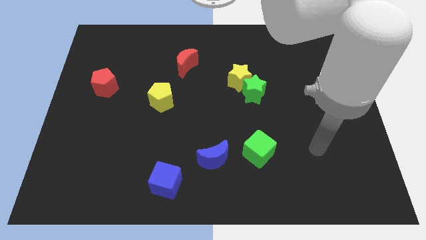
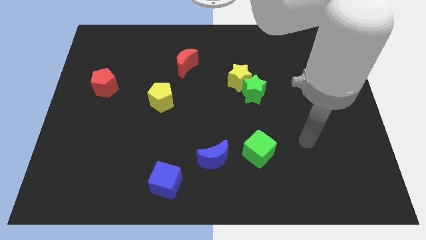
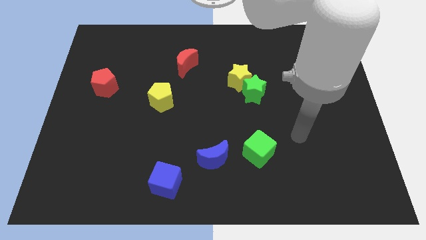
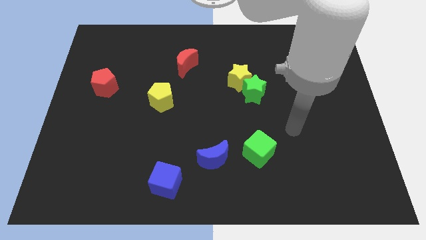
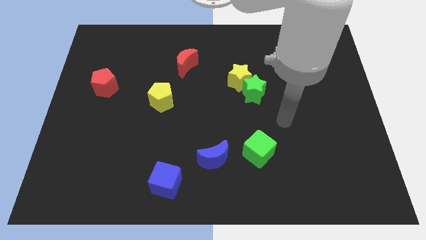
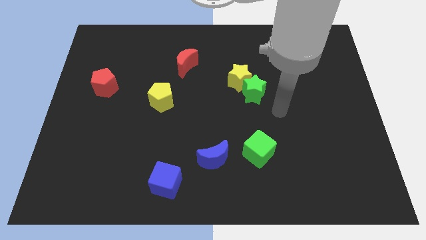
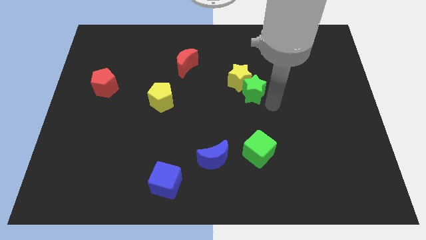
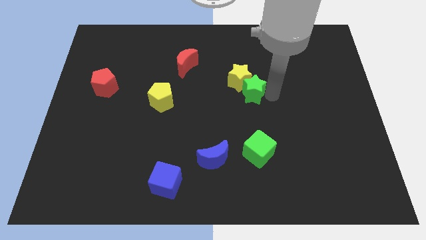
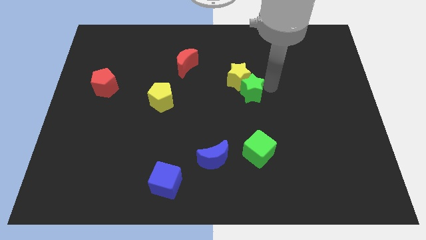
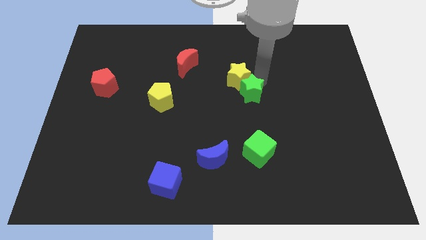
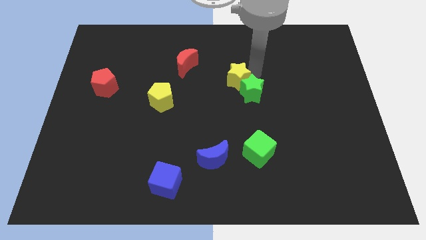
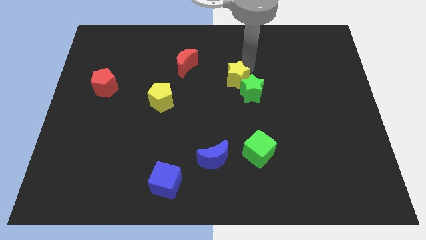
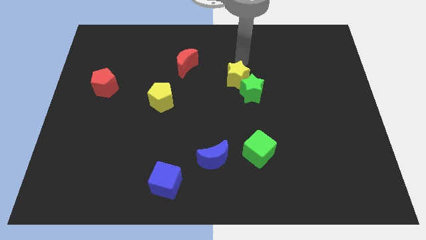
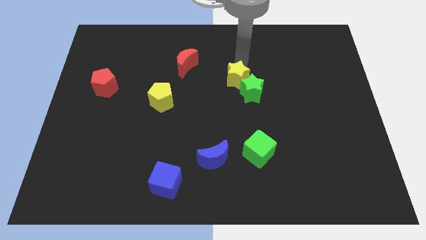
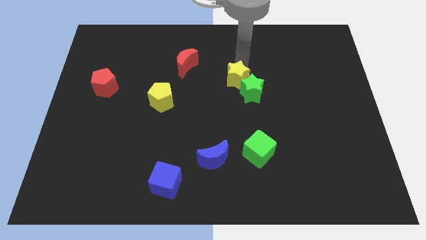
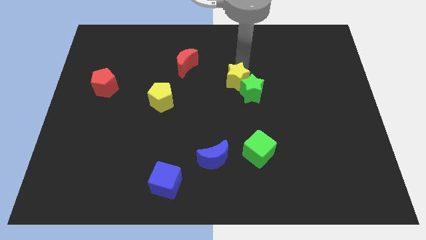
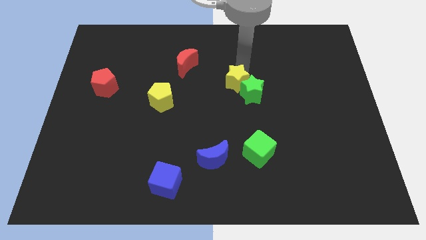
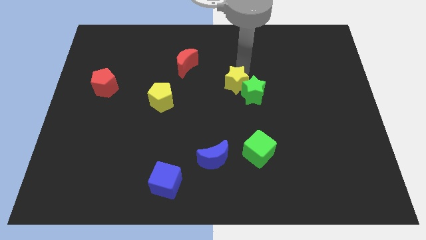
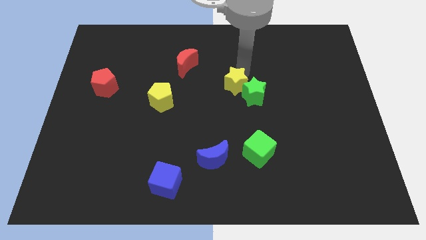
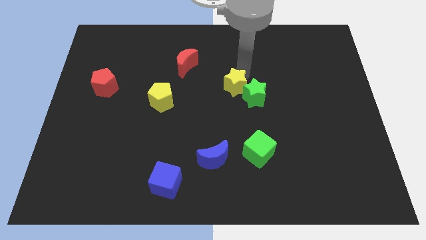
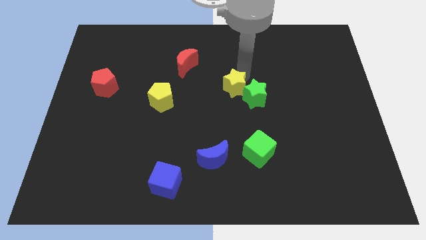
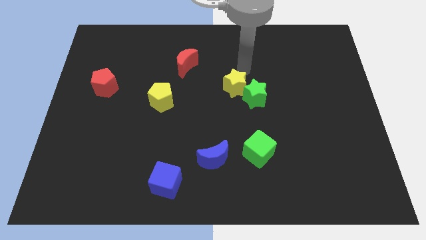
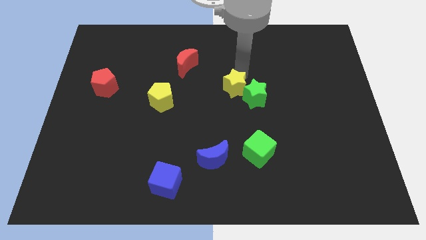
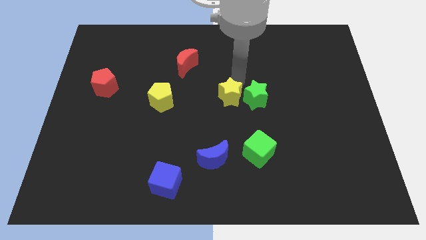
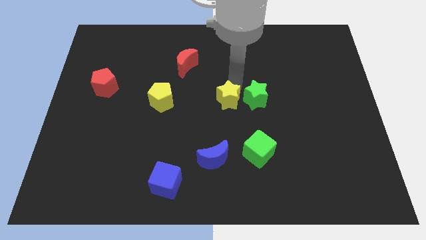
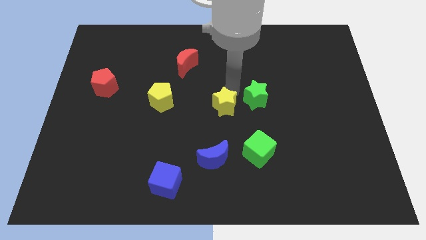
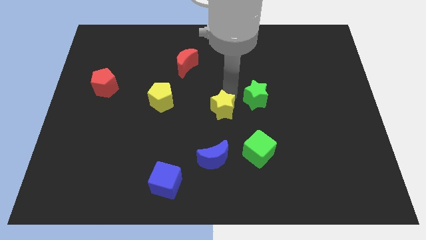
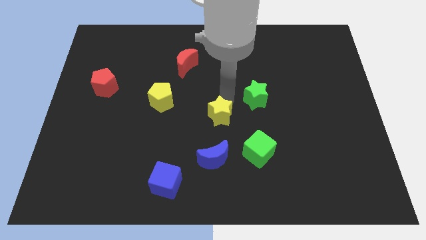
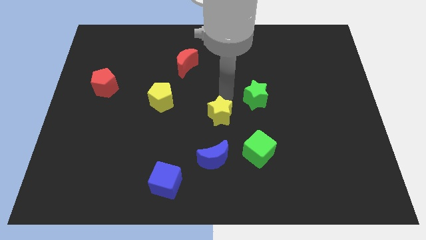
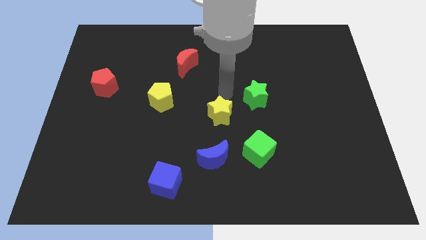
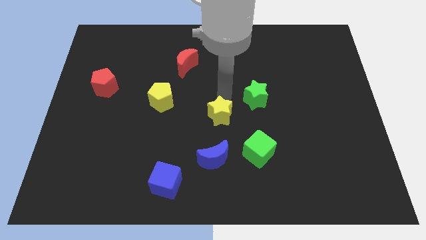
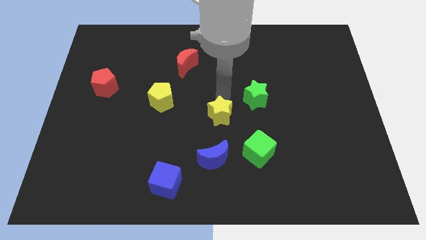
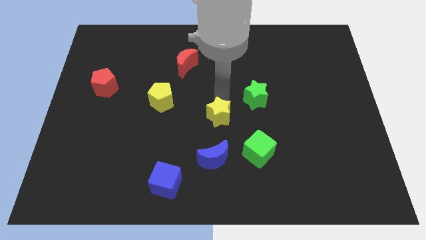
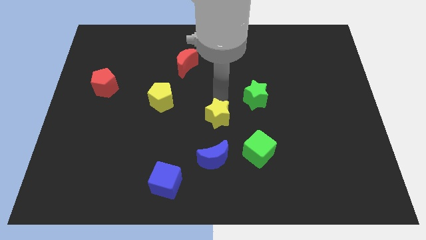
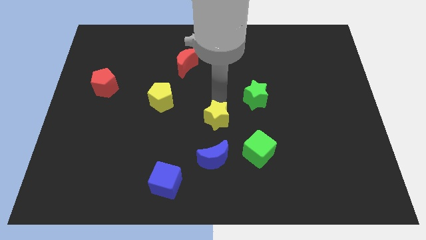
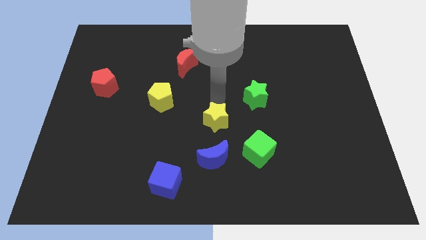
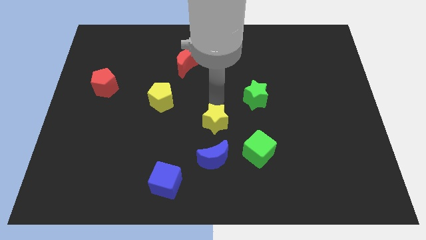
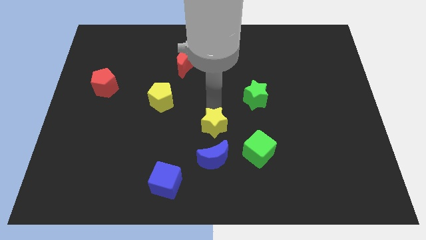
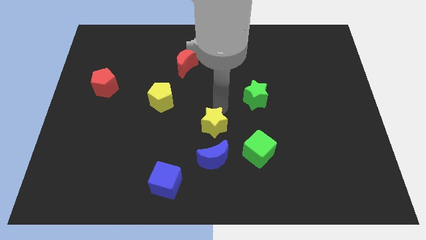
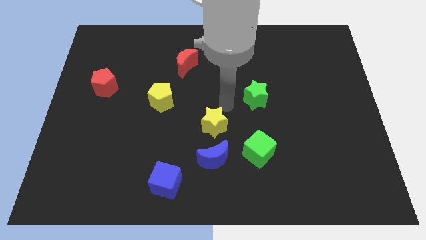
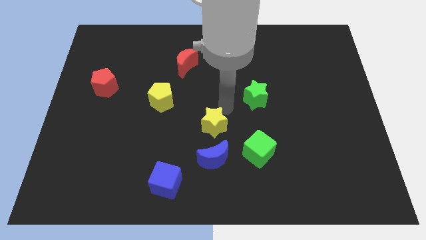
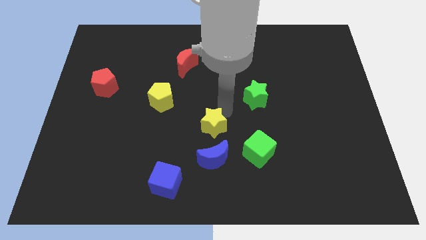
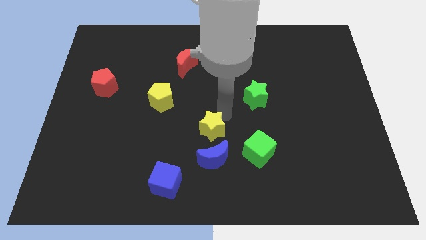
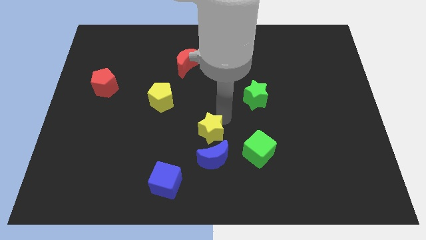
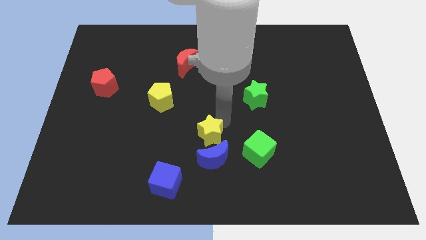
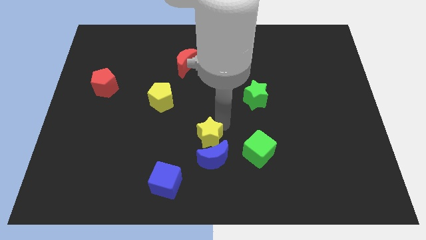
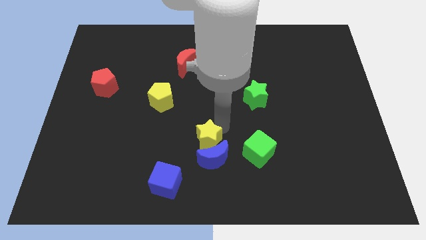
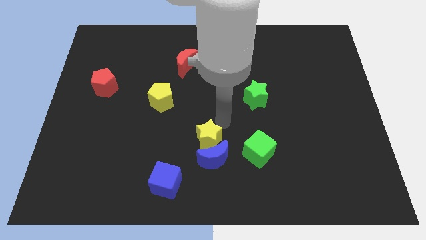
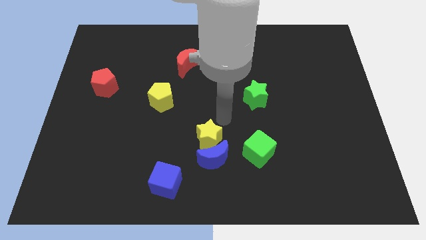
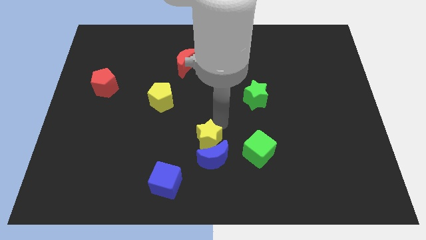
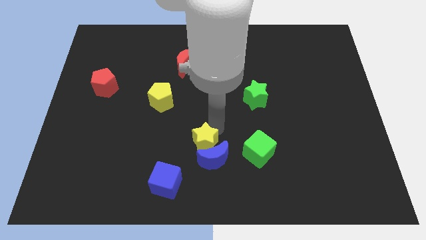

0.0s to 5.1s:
slide the yellow star to the top right side of the blue cube

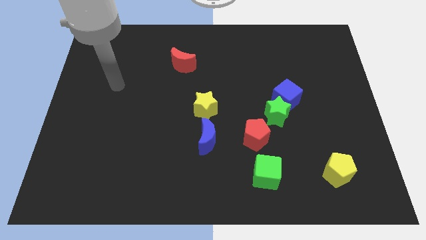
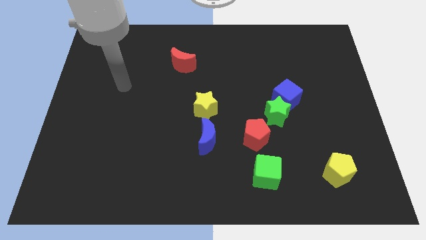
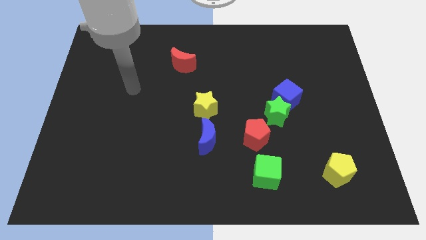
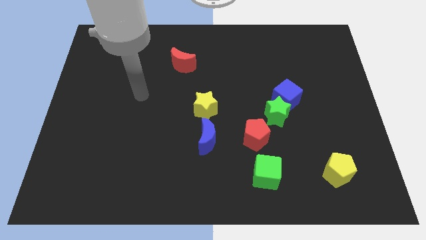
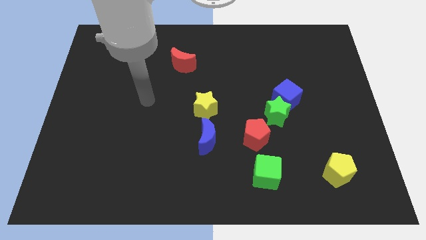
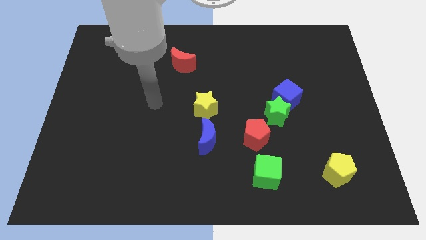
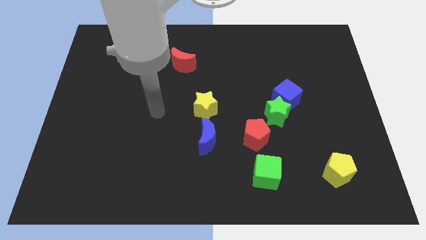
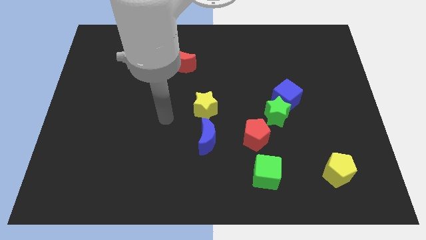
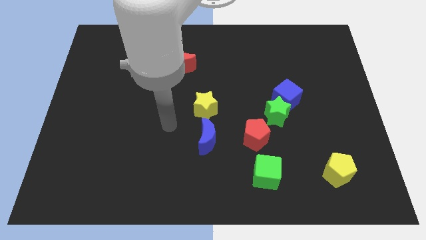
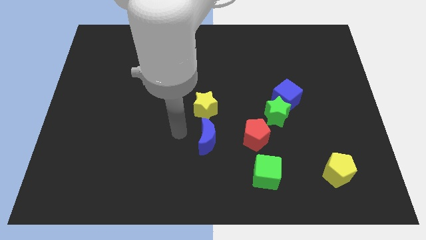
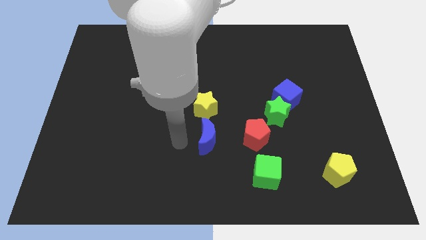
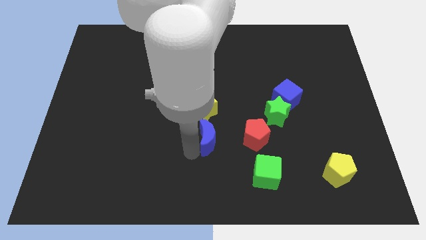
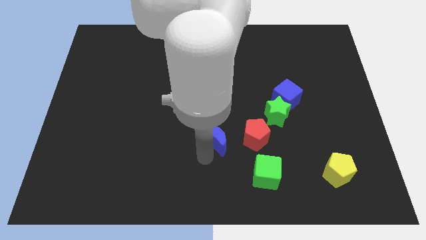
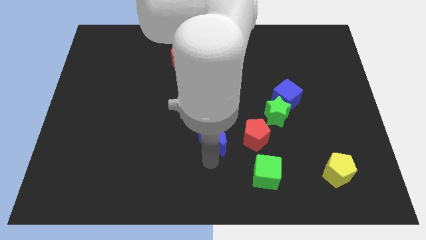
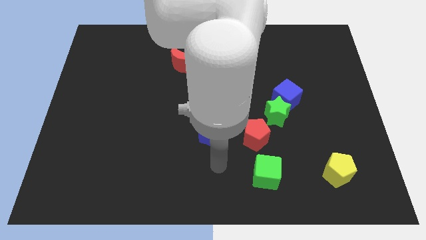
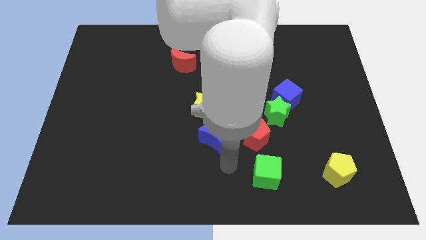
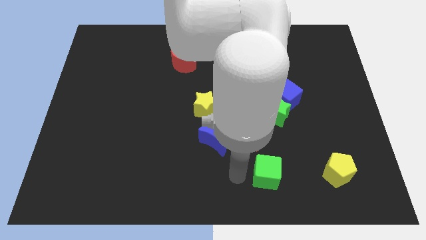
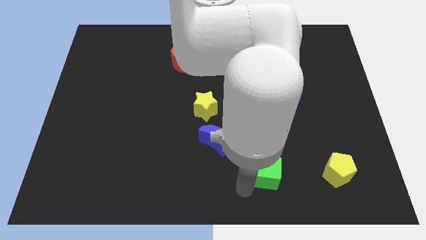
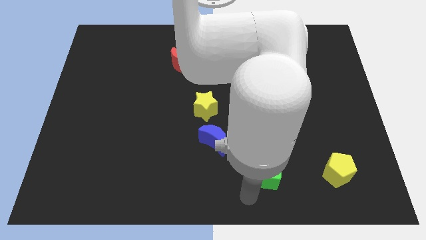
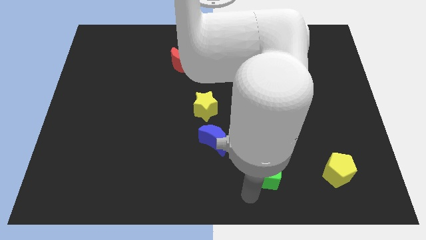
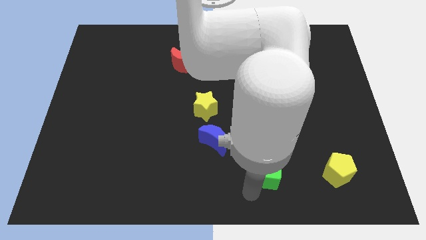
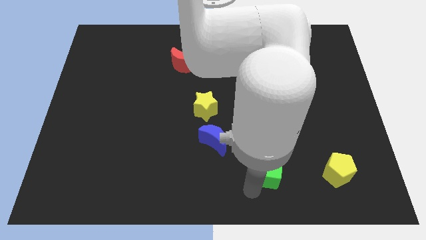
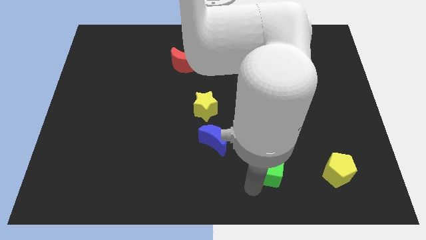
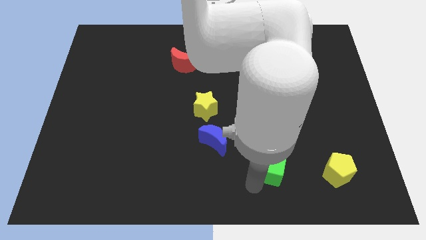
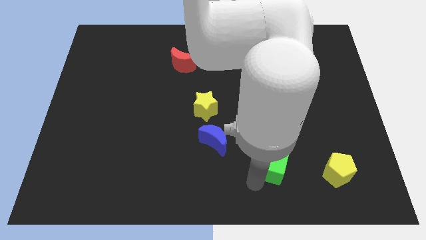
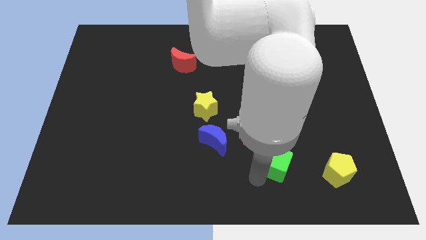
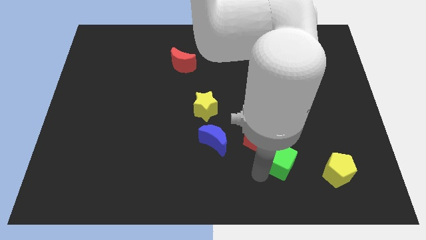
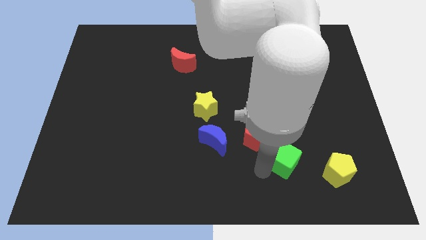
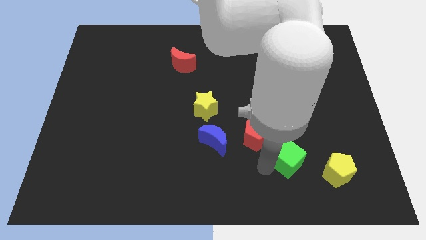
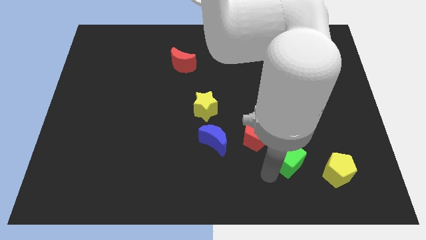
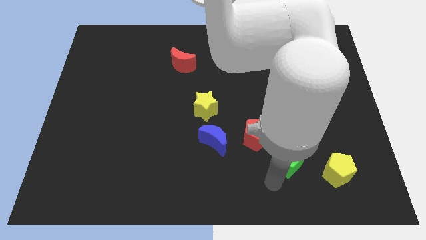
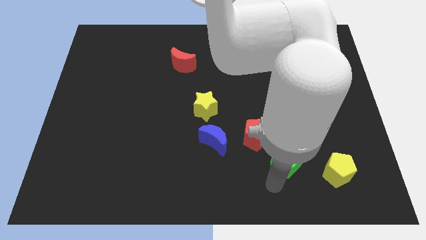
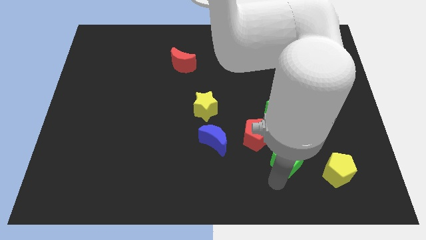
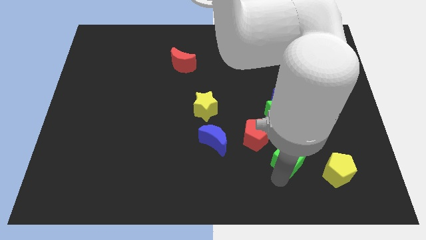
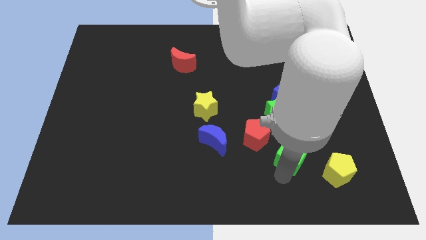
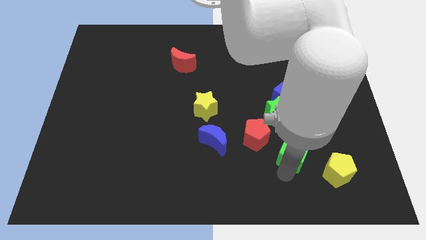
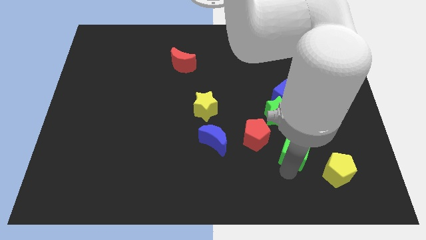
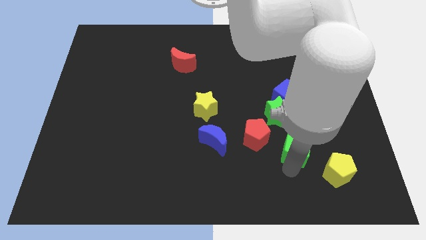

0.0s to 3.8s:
put the green cube to the bottom right side of the green star
